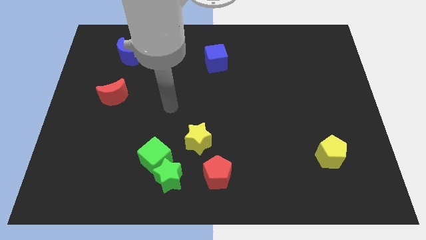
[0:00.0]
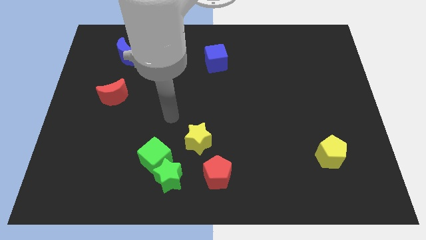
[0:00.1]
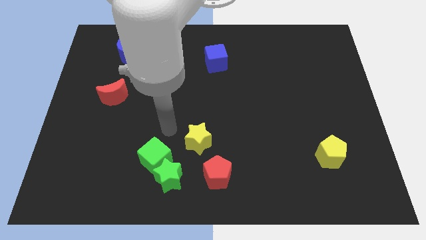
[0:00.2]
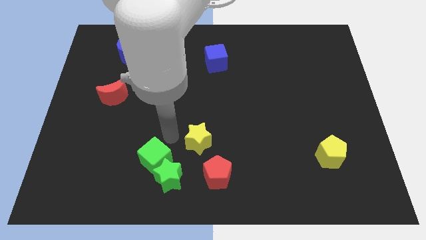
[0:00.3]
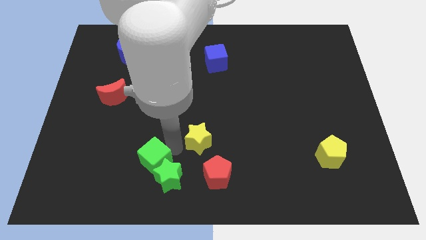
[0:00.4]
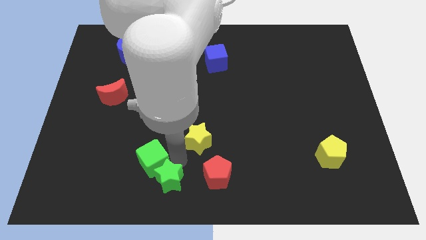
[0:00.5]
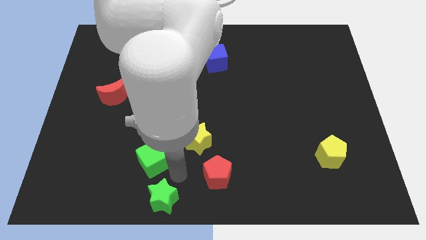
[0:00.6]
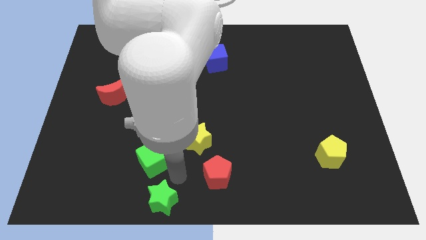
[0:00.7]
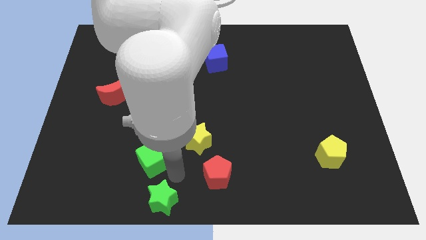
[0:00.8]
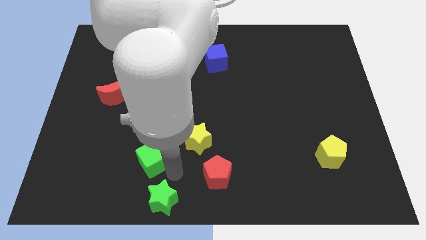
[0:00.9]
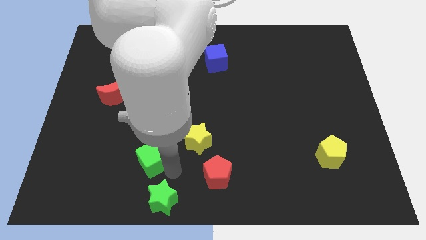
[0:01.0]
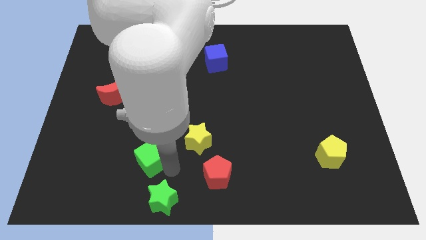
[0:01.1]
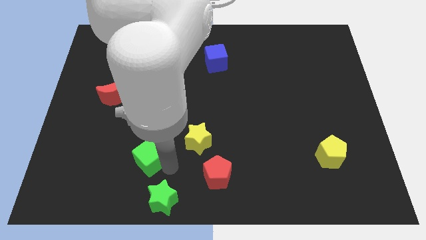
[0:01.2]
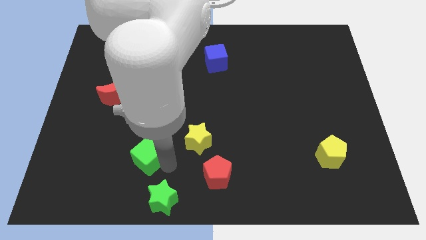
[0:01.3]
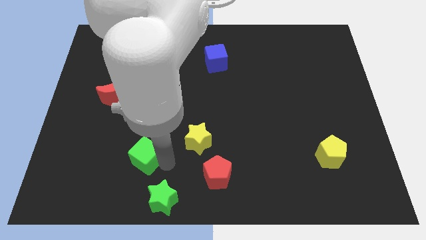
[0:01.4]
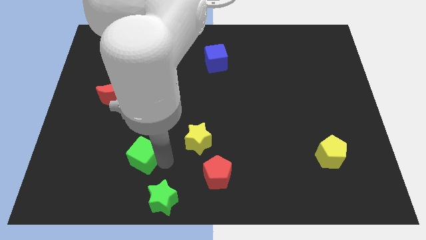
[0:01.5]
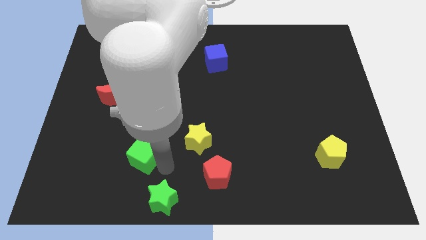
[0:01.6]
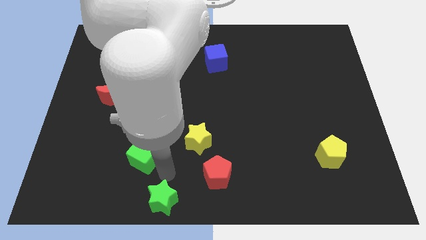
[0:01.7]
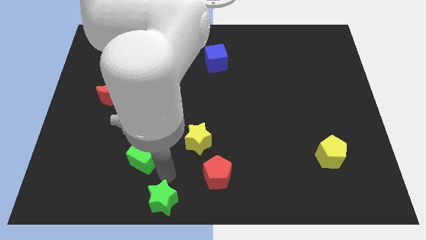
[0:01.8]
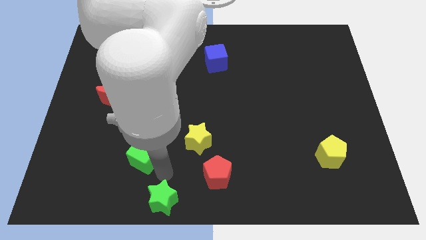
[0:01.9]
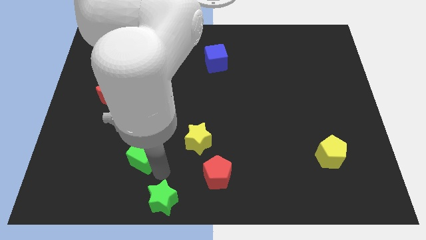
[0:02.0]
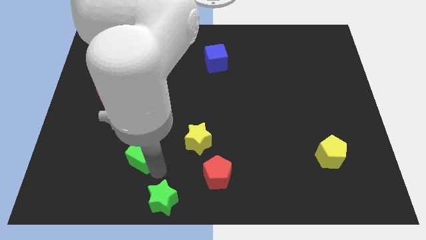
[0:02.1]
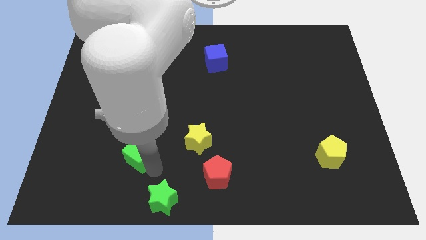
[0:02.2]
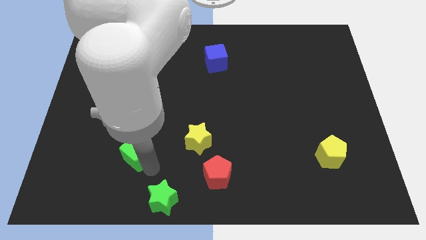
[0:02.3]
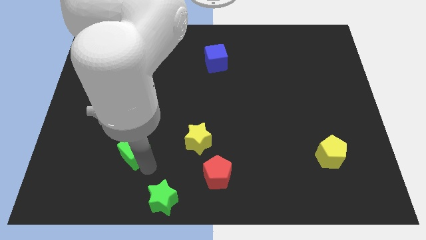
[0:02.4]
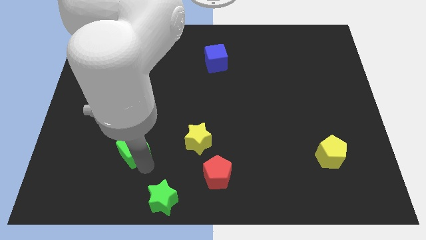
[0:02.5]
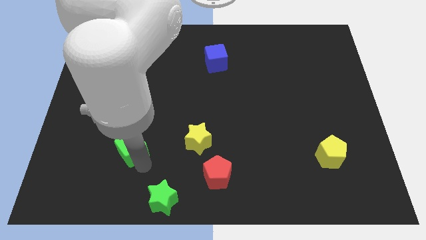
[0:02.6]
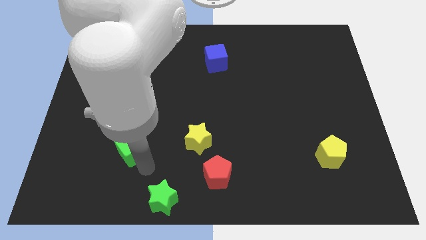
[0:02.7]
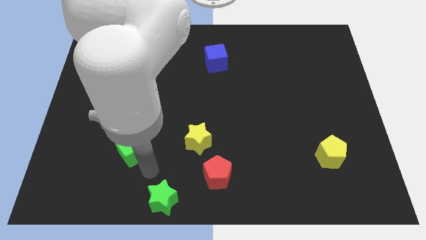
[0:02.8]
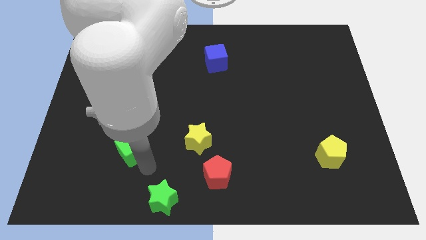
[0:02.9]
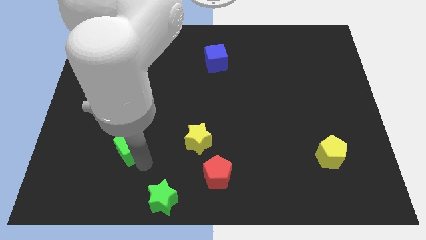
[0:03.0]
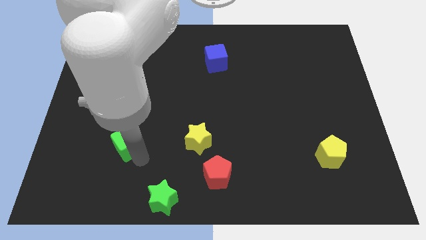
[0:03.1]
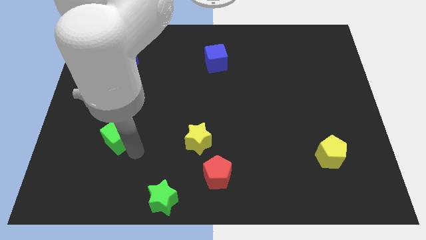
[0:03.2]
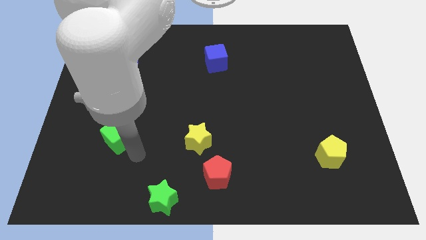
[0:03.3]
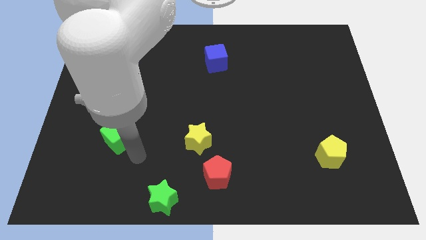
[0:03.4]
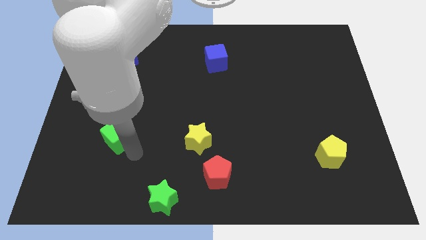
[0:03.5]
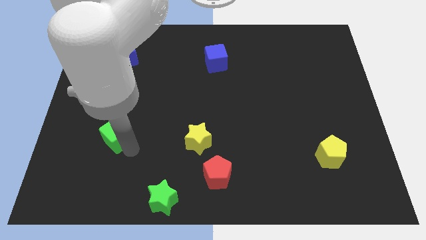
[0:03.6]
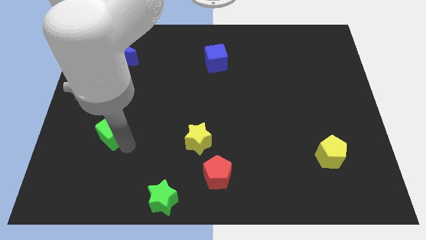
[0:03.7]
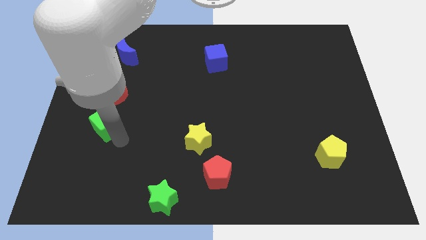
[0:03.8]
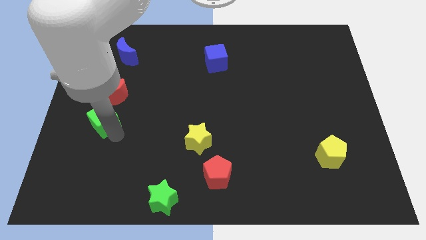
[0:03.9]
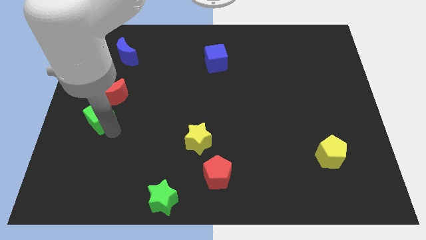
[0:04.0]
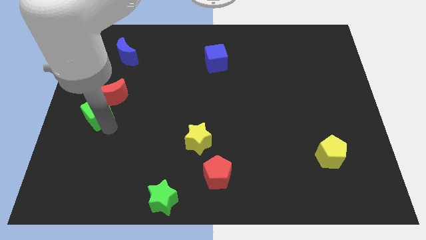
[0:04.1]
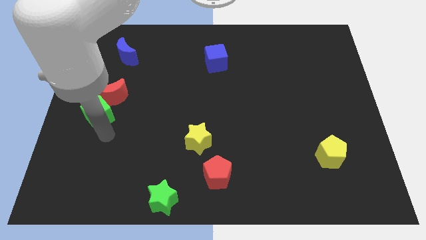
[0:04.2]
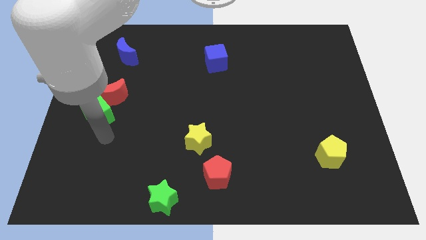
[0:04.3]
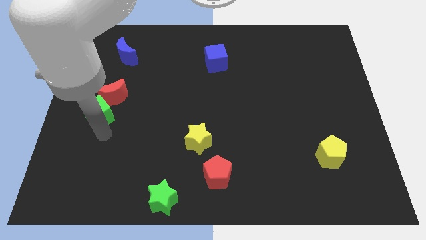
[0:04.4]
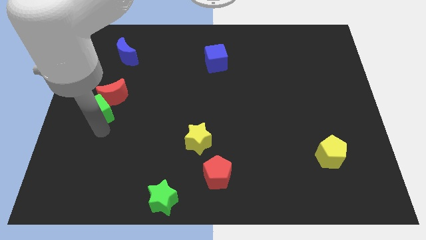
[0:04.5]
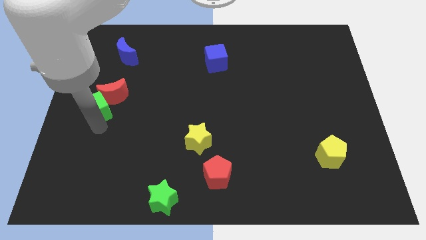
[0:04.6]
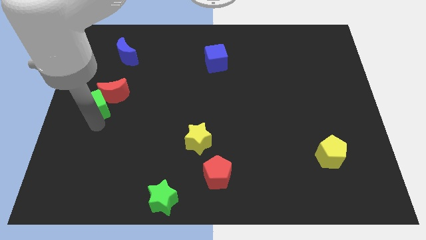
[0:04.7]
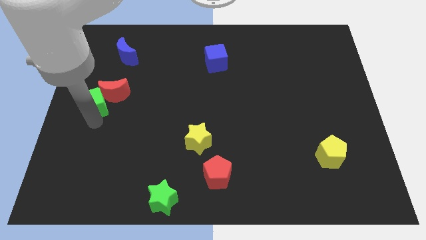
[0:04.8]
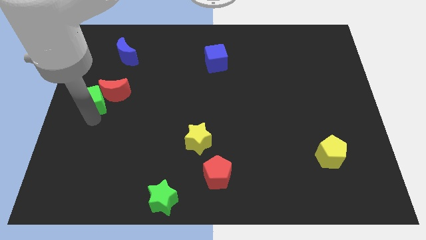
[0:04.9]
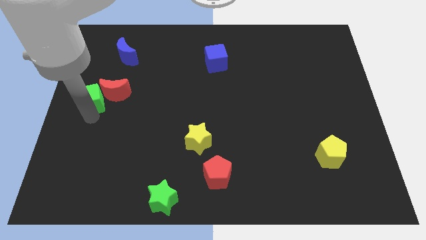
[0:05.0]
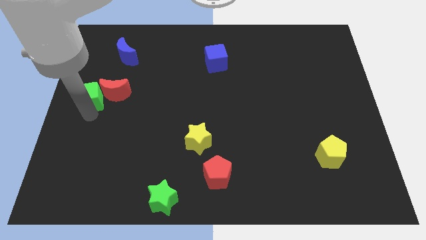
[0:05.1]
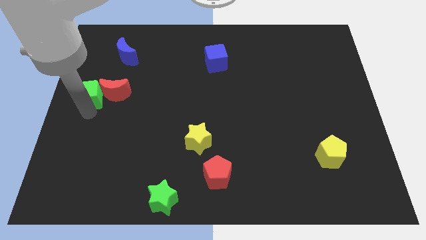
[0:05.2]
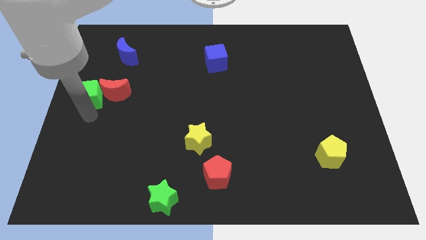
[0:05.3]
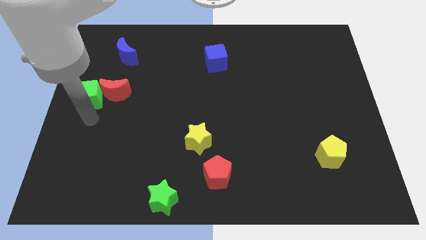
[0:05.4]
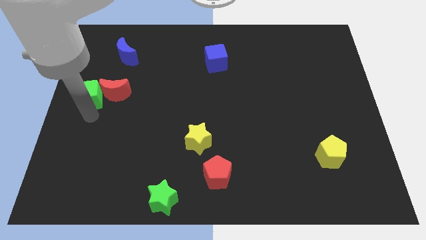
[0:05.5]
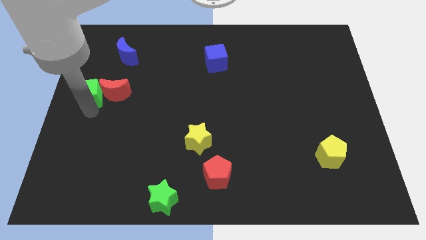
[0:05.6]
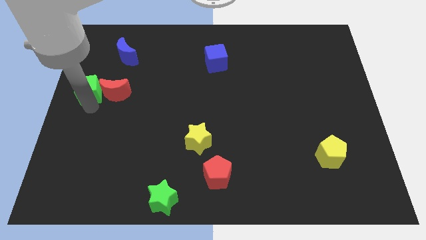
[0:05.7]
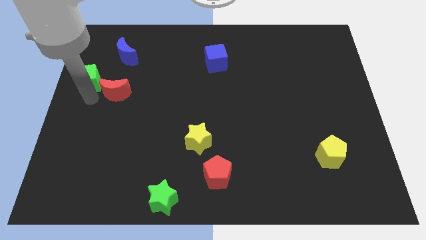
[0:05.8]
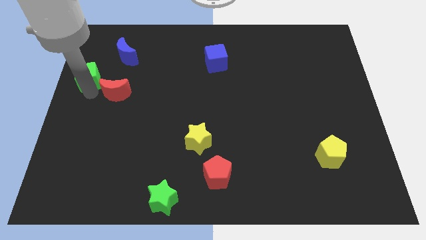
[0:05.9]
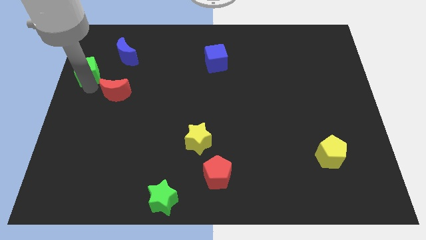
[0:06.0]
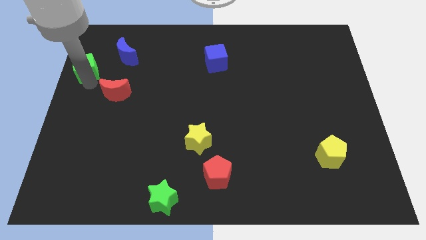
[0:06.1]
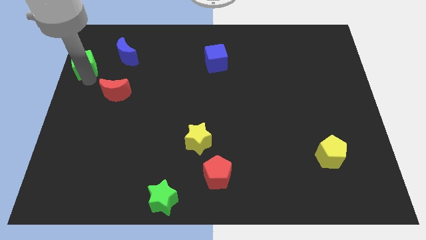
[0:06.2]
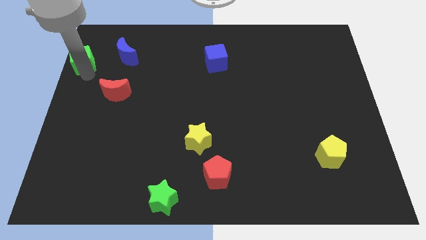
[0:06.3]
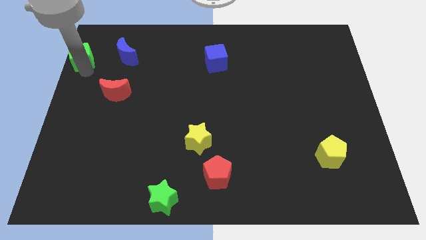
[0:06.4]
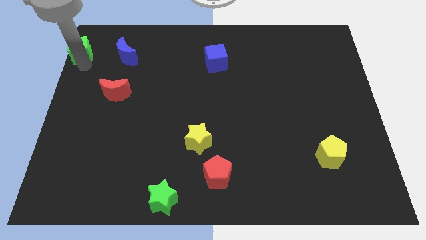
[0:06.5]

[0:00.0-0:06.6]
slide the green cube to the top left of the board
